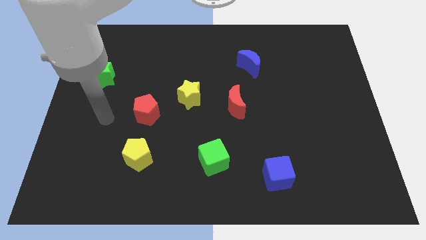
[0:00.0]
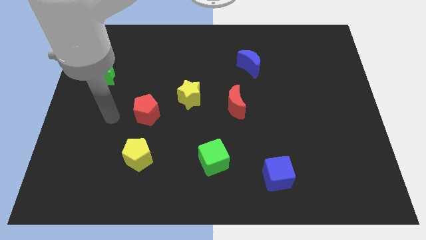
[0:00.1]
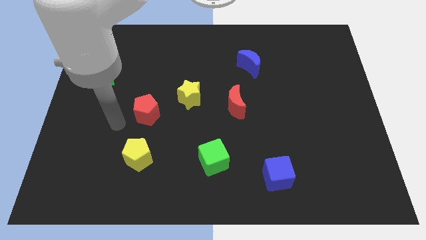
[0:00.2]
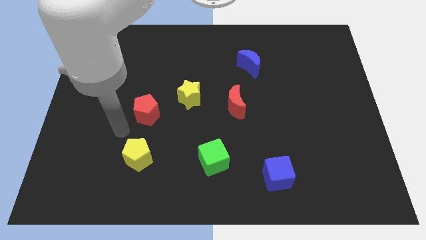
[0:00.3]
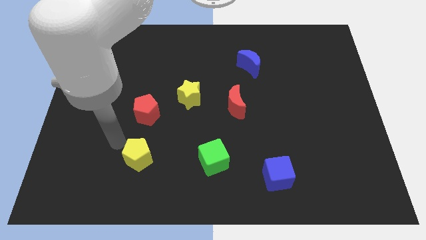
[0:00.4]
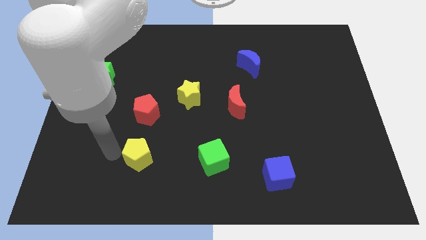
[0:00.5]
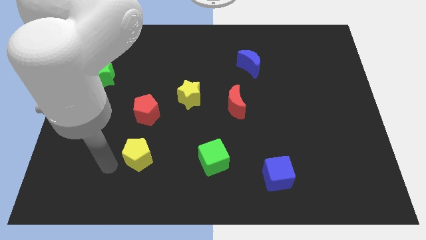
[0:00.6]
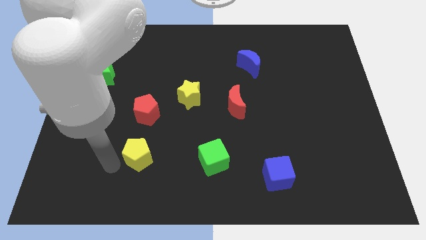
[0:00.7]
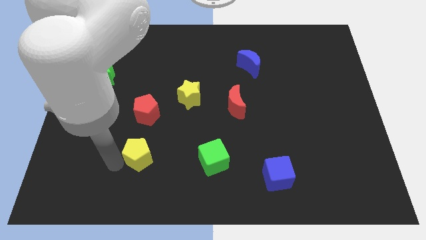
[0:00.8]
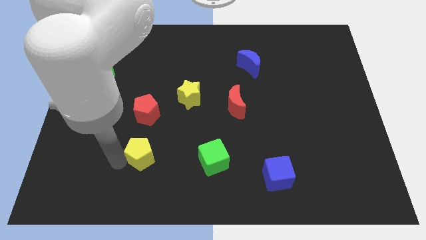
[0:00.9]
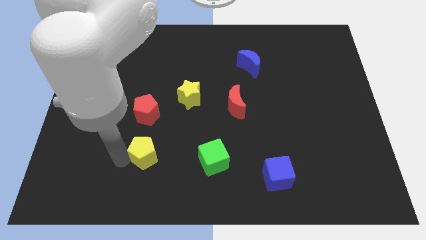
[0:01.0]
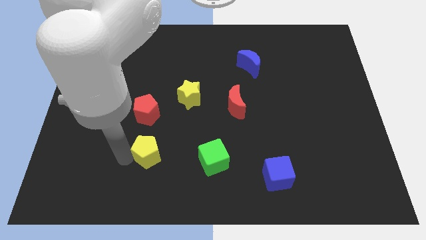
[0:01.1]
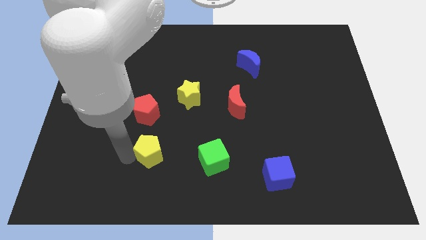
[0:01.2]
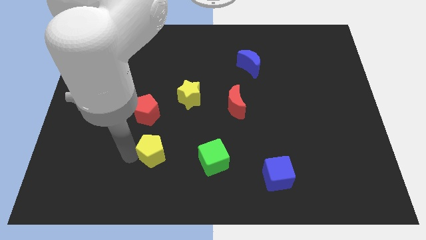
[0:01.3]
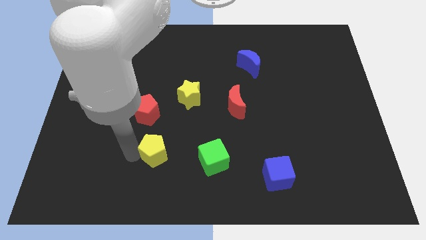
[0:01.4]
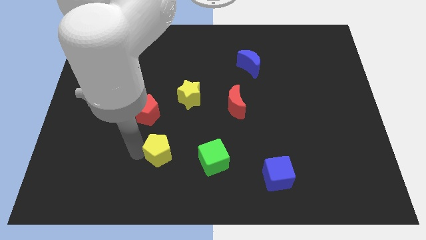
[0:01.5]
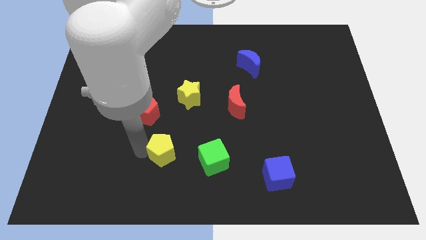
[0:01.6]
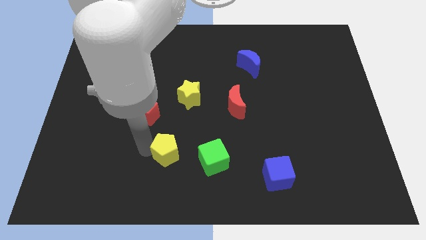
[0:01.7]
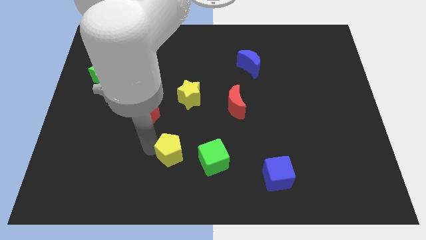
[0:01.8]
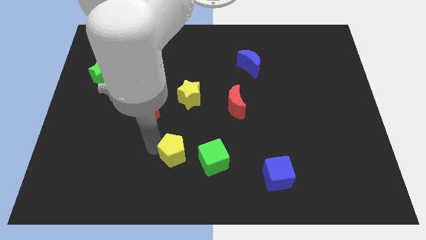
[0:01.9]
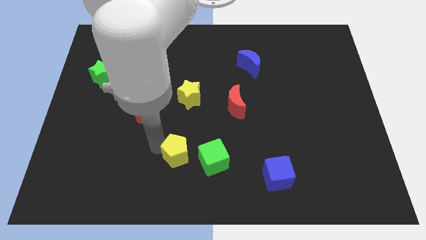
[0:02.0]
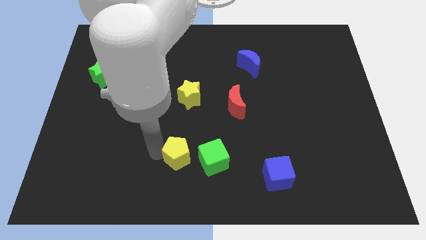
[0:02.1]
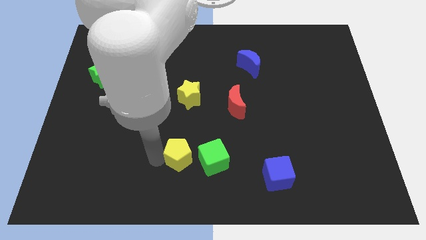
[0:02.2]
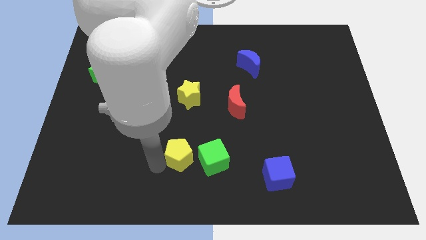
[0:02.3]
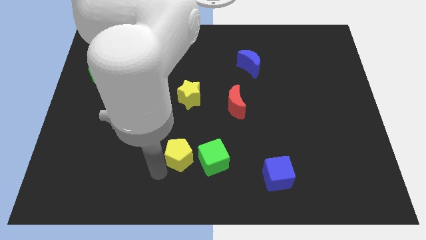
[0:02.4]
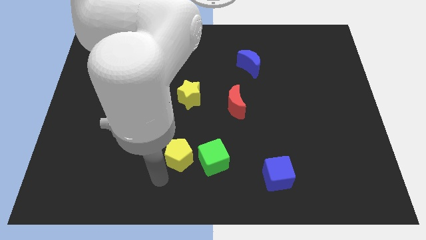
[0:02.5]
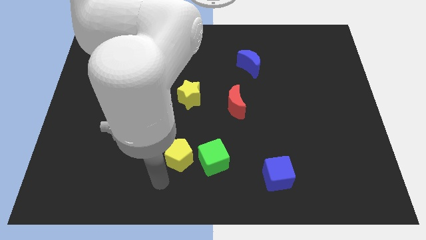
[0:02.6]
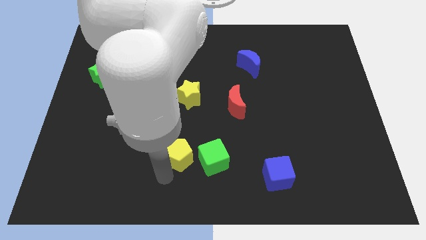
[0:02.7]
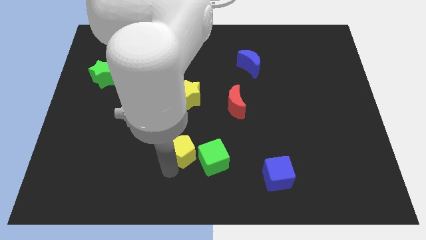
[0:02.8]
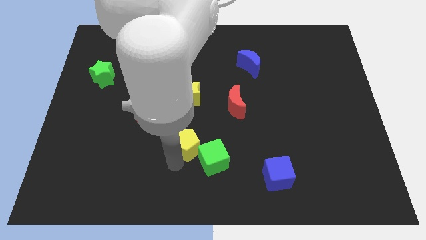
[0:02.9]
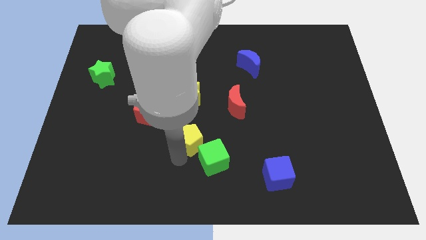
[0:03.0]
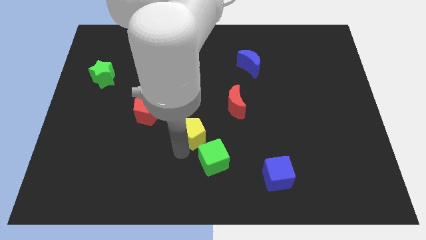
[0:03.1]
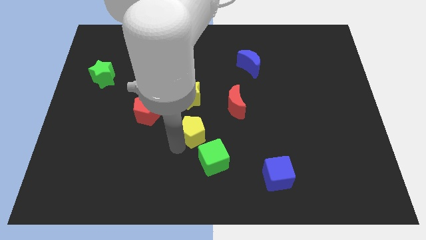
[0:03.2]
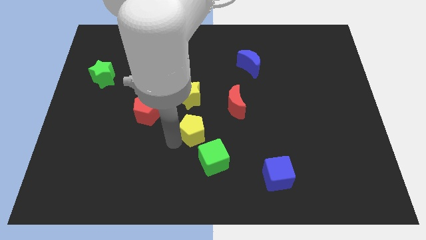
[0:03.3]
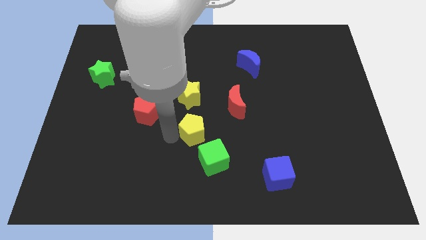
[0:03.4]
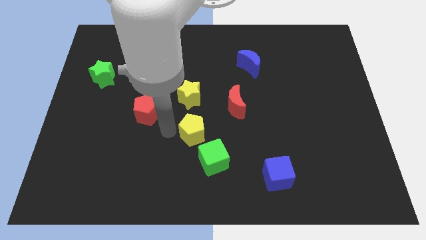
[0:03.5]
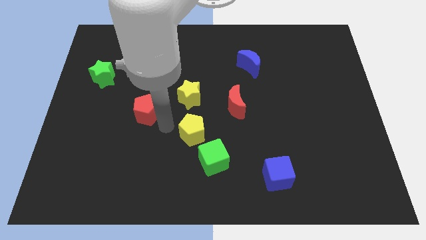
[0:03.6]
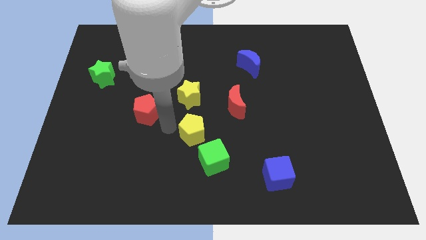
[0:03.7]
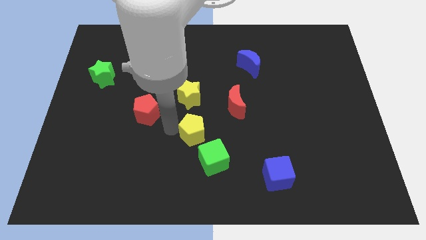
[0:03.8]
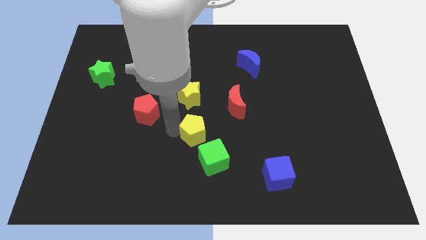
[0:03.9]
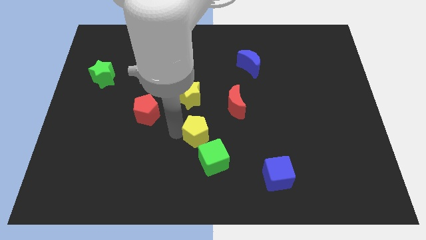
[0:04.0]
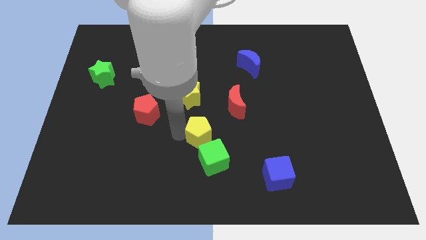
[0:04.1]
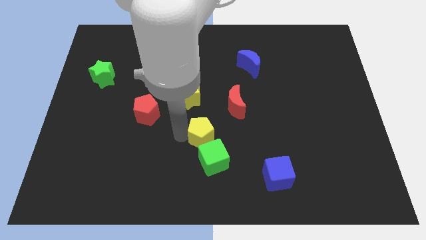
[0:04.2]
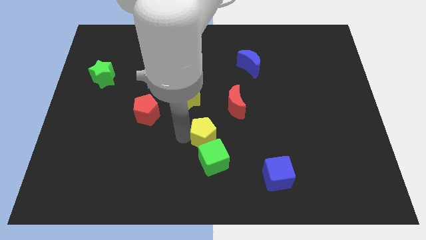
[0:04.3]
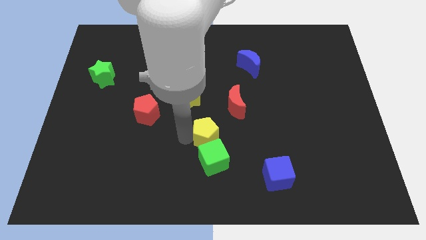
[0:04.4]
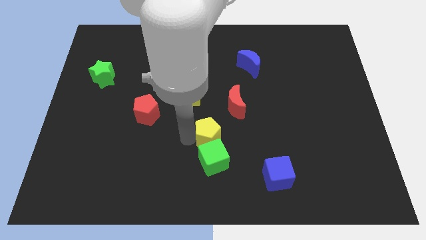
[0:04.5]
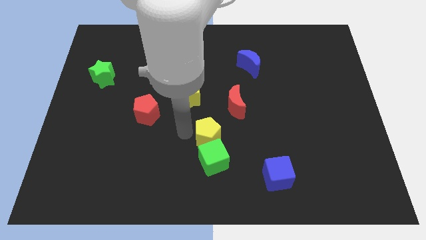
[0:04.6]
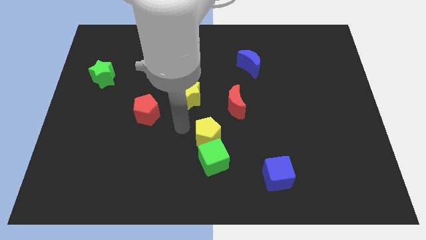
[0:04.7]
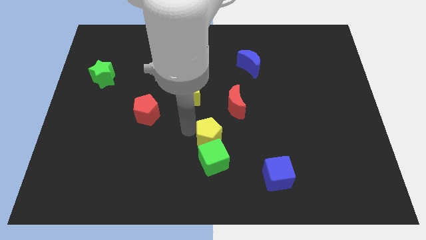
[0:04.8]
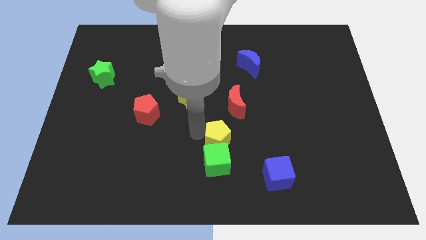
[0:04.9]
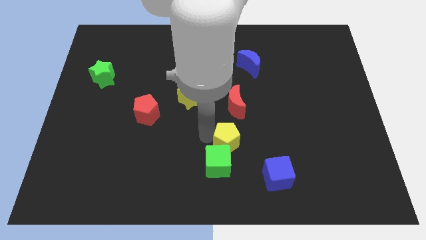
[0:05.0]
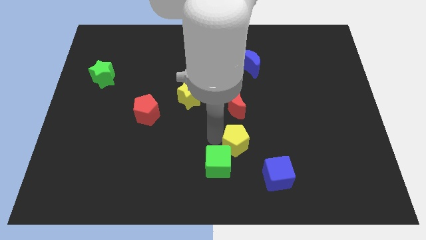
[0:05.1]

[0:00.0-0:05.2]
slide the yellow pentagon to the top left of the blue cube

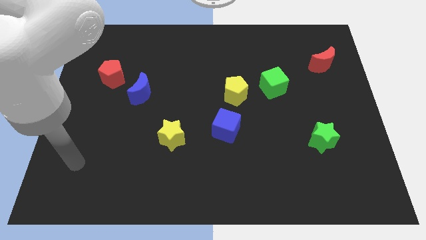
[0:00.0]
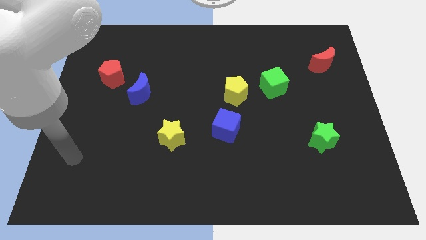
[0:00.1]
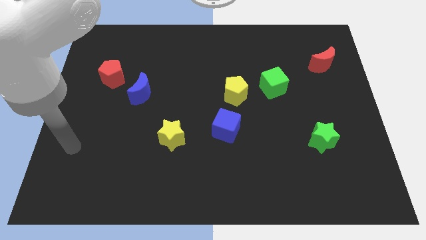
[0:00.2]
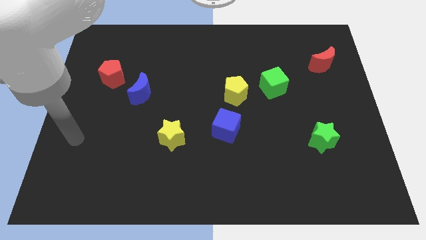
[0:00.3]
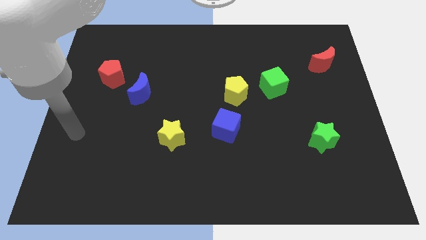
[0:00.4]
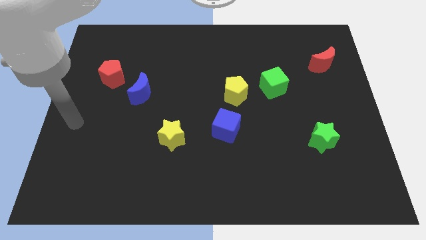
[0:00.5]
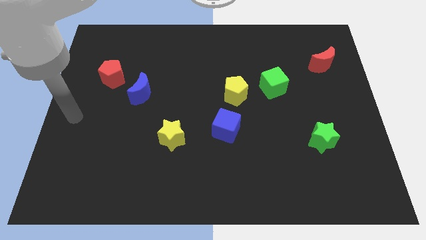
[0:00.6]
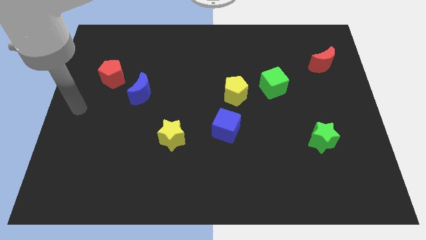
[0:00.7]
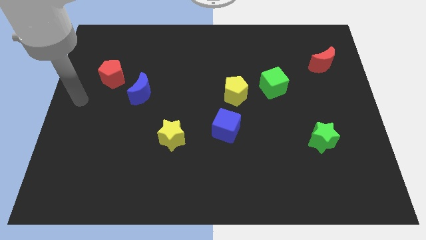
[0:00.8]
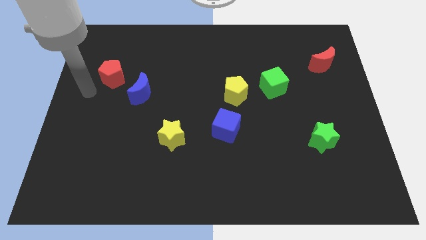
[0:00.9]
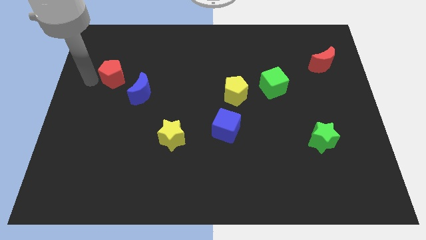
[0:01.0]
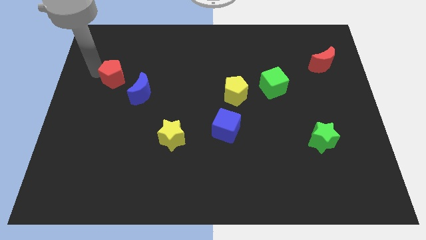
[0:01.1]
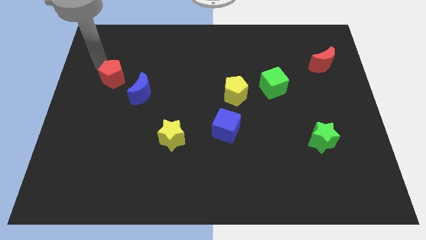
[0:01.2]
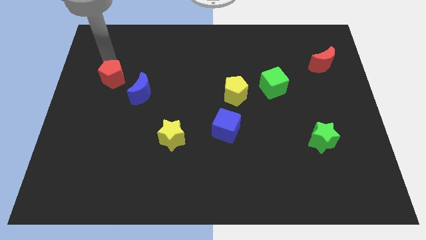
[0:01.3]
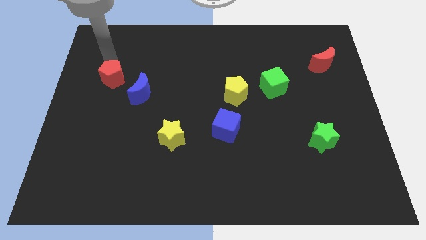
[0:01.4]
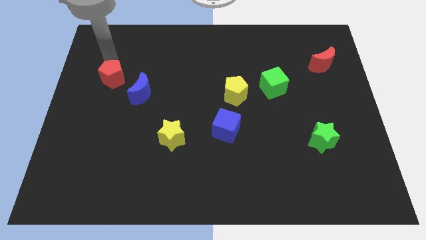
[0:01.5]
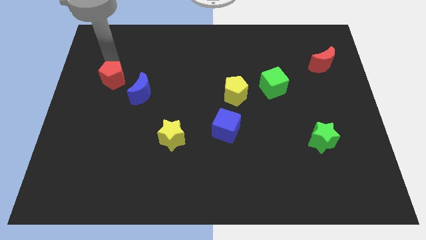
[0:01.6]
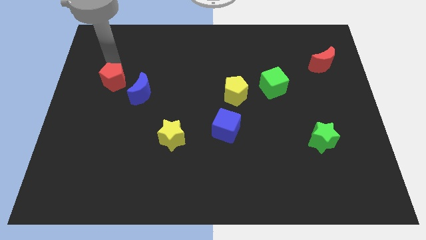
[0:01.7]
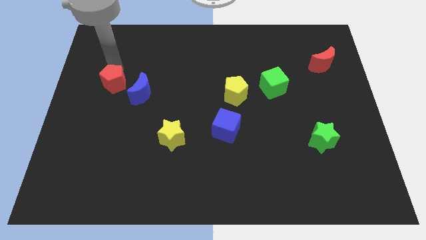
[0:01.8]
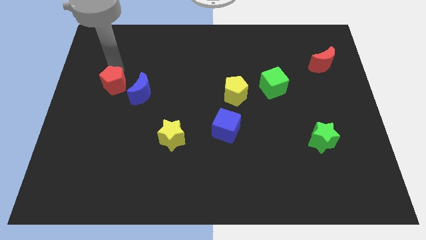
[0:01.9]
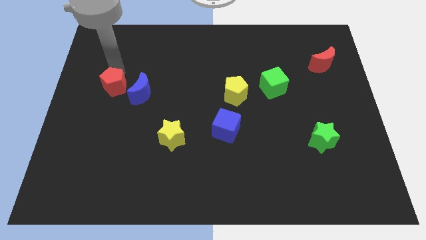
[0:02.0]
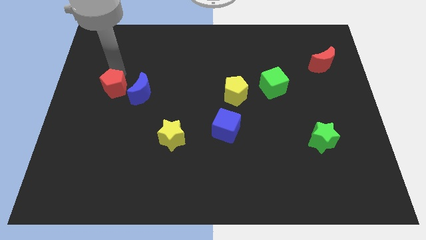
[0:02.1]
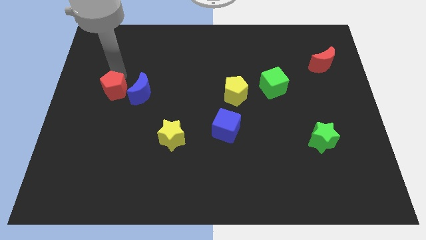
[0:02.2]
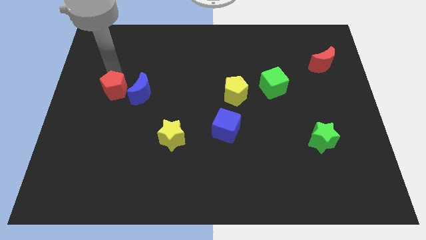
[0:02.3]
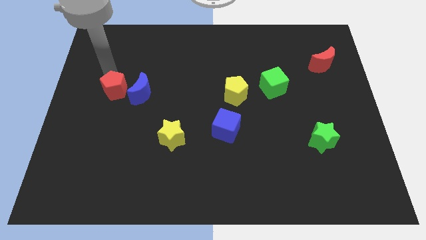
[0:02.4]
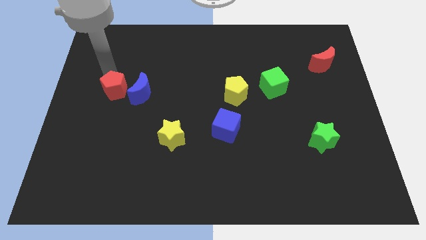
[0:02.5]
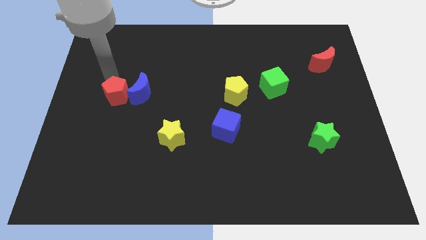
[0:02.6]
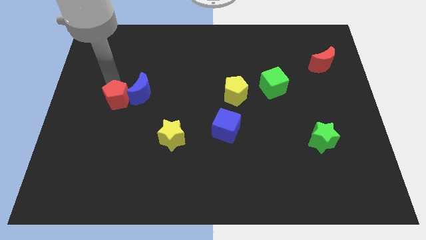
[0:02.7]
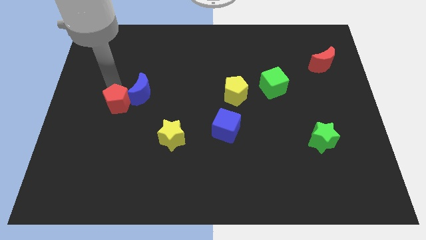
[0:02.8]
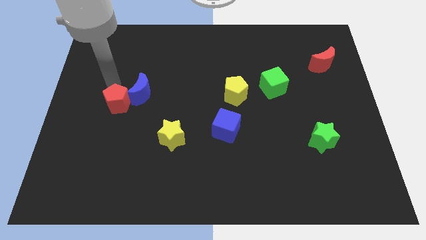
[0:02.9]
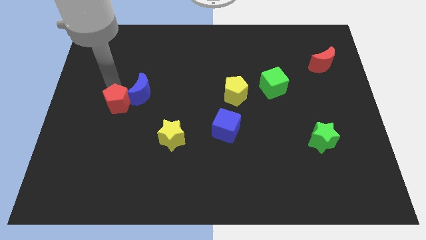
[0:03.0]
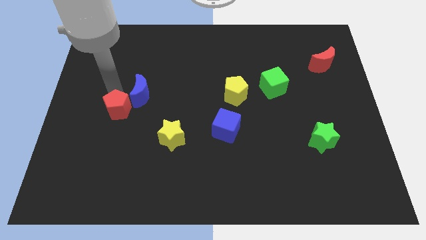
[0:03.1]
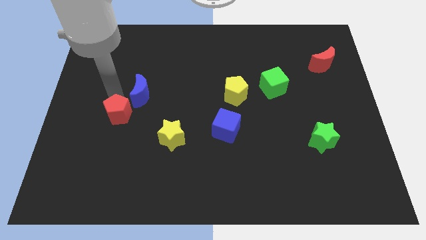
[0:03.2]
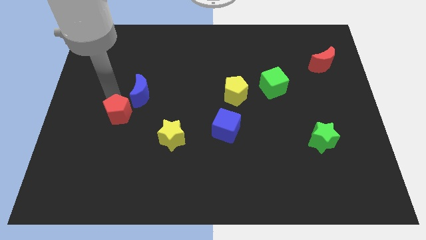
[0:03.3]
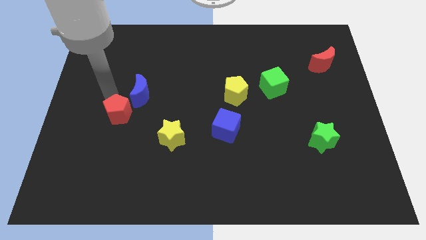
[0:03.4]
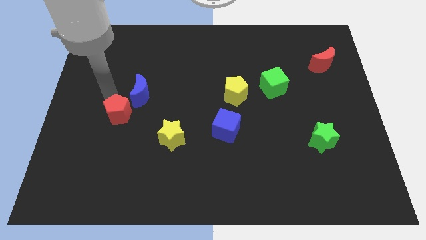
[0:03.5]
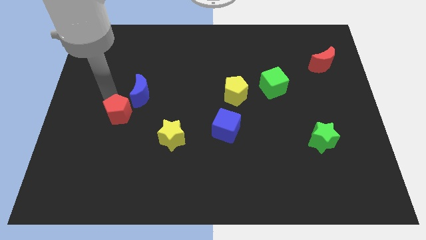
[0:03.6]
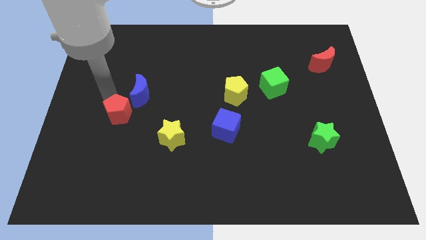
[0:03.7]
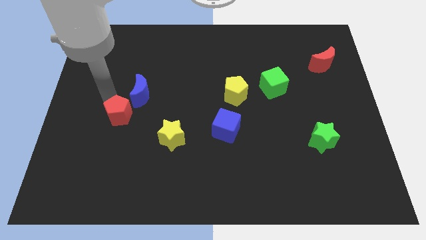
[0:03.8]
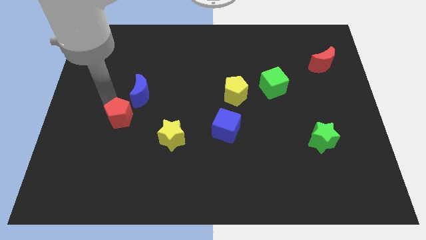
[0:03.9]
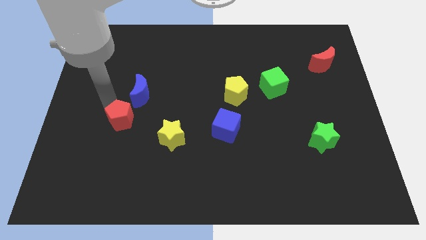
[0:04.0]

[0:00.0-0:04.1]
slide the red pentagon to the left side of the yellow star
